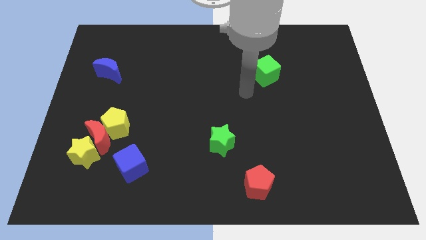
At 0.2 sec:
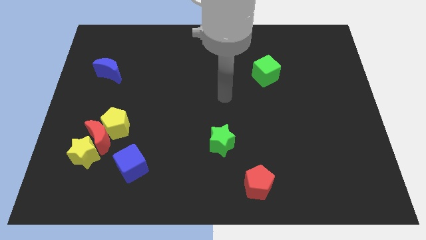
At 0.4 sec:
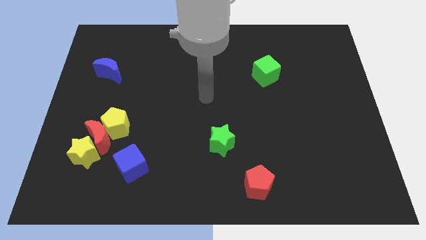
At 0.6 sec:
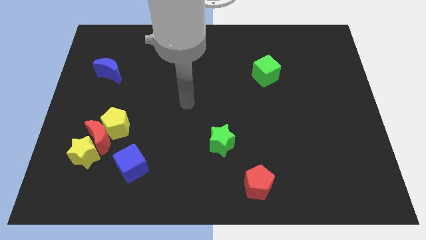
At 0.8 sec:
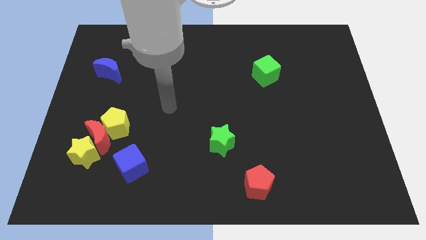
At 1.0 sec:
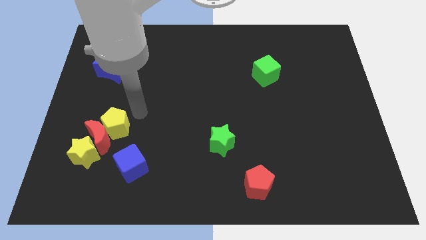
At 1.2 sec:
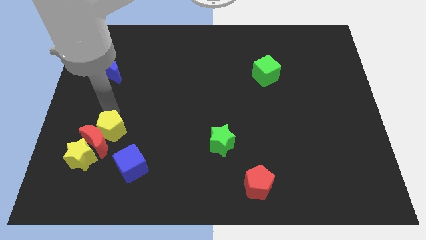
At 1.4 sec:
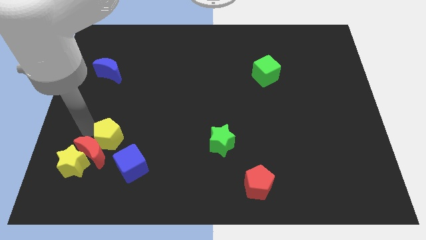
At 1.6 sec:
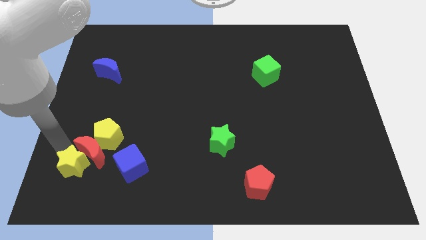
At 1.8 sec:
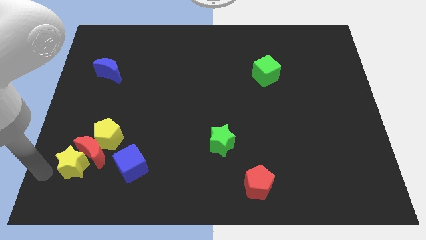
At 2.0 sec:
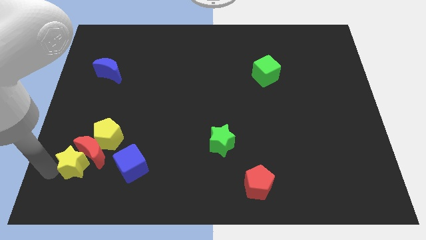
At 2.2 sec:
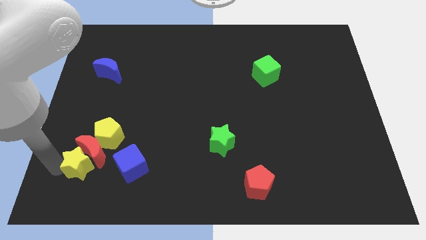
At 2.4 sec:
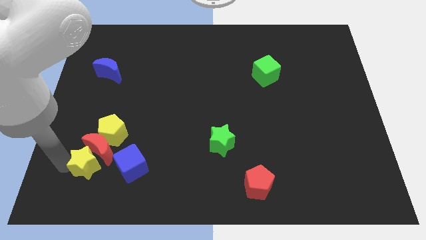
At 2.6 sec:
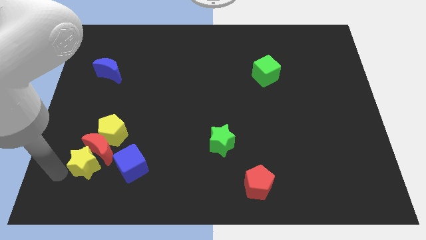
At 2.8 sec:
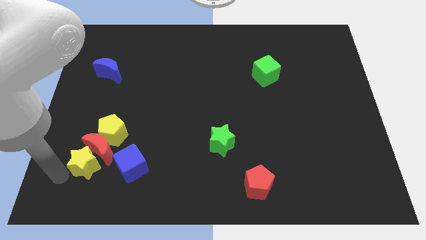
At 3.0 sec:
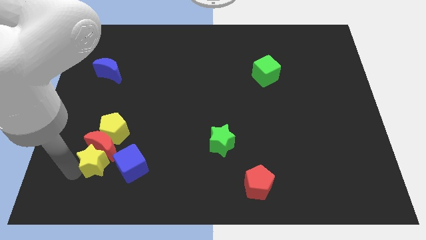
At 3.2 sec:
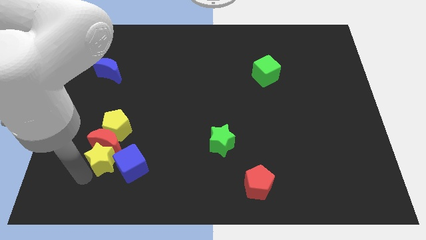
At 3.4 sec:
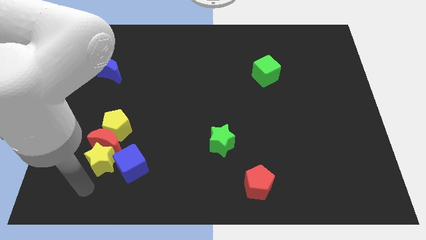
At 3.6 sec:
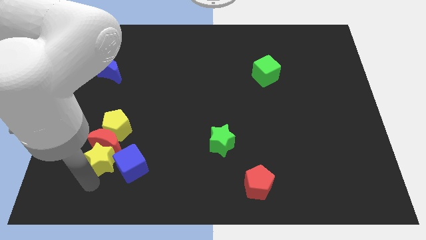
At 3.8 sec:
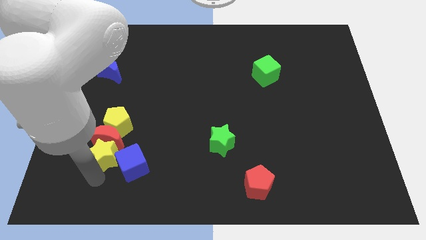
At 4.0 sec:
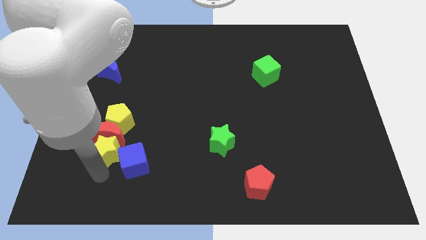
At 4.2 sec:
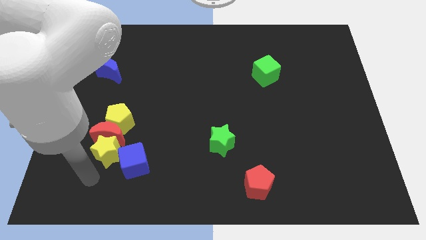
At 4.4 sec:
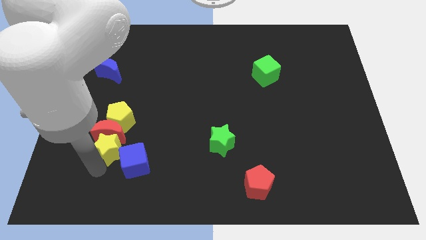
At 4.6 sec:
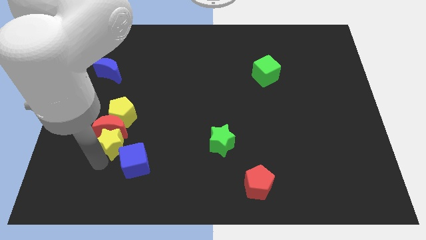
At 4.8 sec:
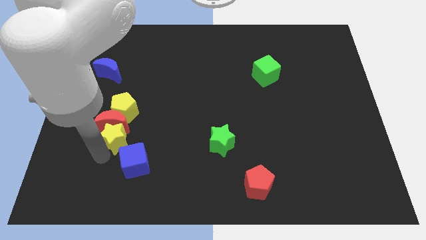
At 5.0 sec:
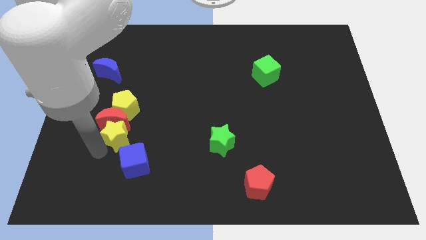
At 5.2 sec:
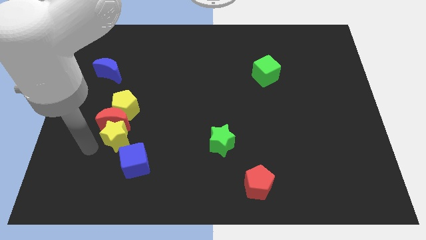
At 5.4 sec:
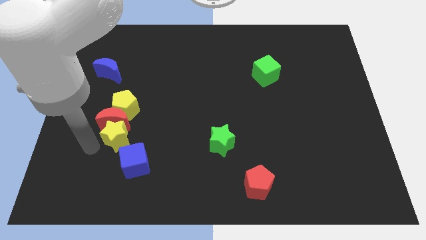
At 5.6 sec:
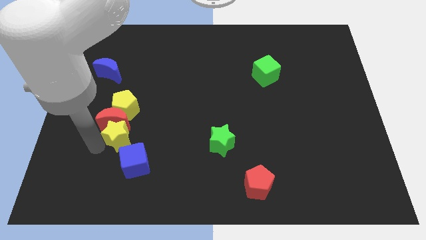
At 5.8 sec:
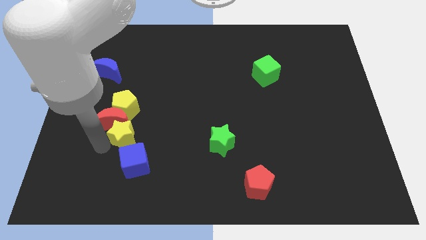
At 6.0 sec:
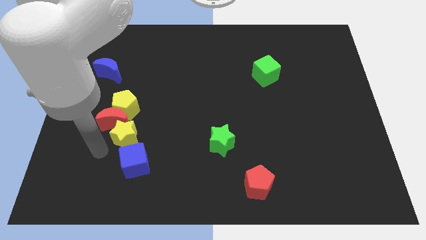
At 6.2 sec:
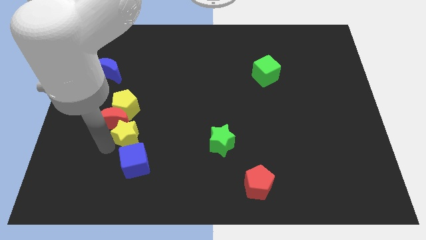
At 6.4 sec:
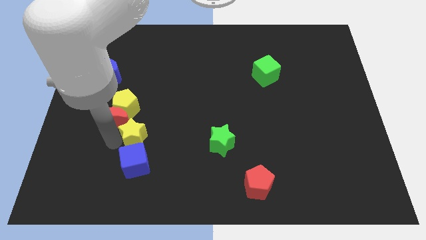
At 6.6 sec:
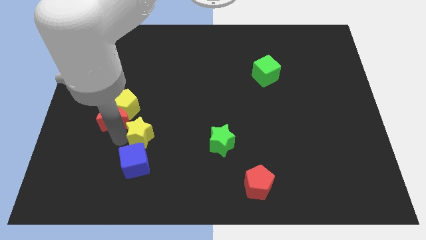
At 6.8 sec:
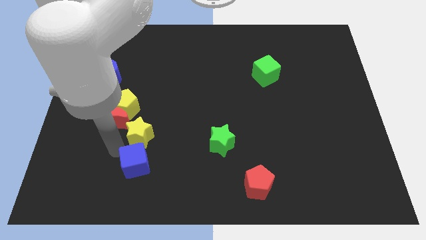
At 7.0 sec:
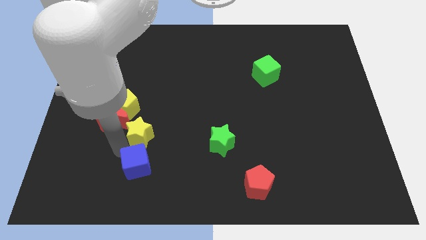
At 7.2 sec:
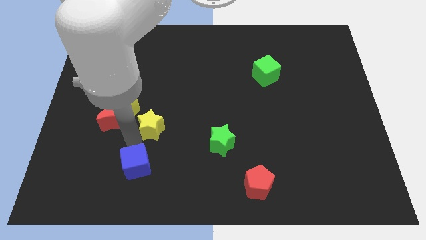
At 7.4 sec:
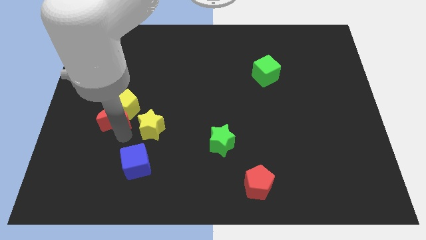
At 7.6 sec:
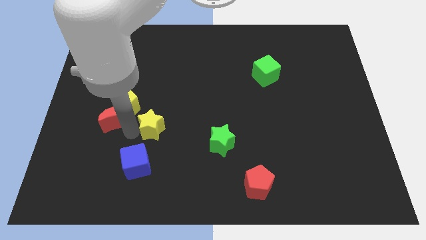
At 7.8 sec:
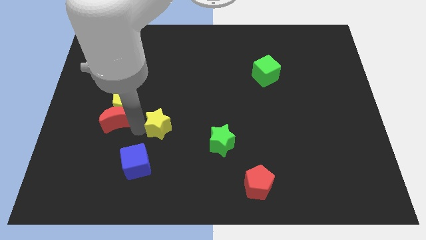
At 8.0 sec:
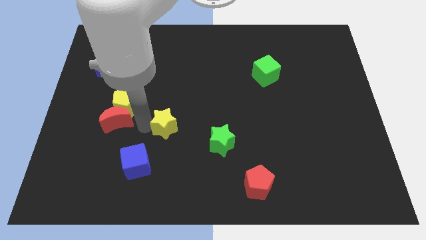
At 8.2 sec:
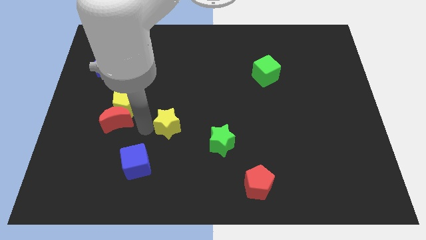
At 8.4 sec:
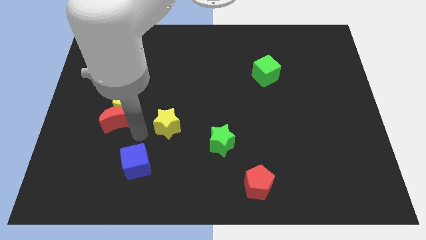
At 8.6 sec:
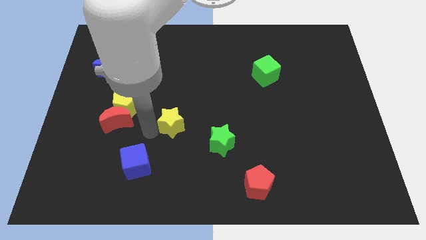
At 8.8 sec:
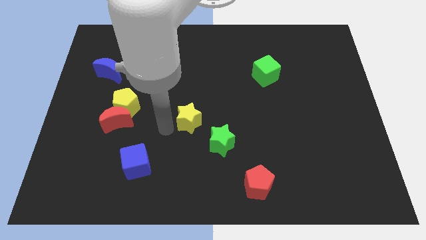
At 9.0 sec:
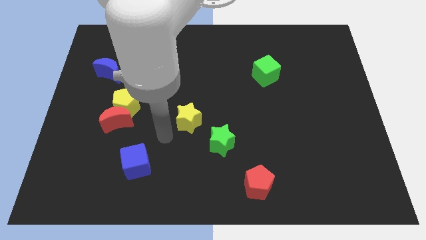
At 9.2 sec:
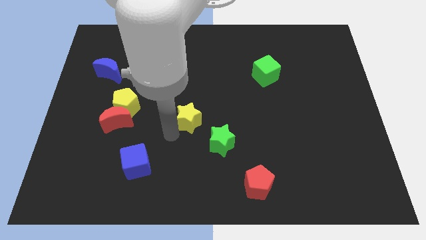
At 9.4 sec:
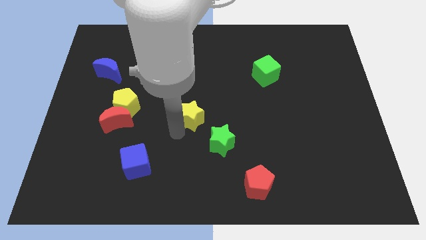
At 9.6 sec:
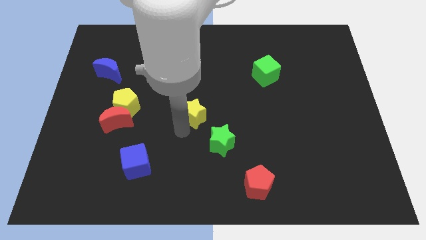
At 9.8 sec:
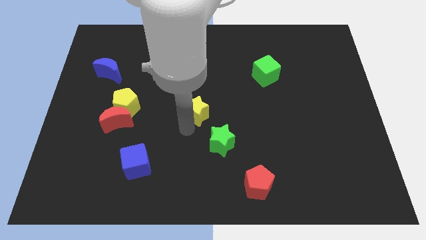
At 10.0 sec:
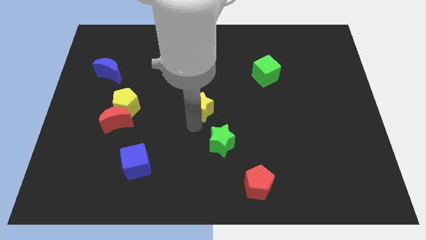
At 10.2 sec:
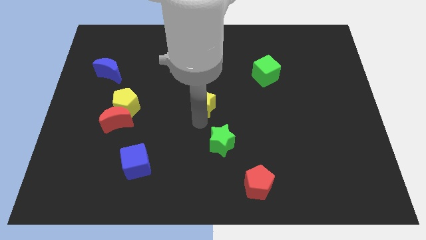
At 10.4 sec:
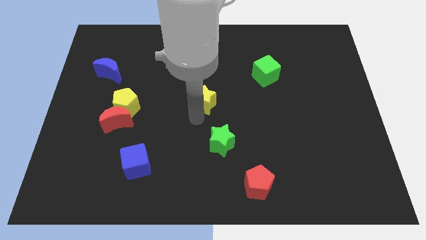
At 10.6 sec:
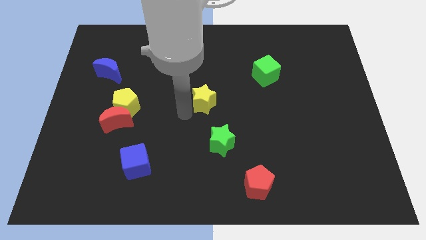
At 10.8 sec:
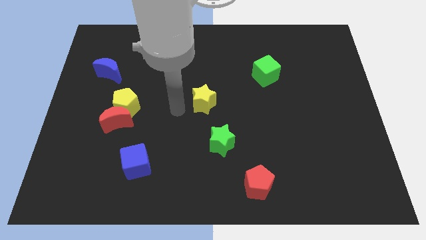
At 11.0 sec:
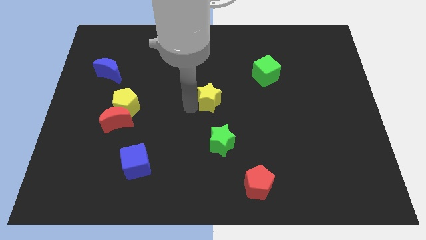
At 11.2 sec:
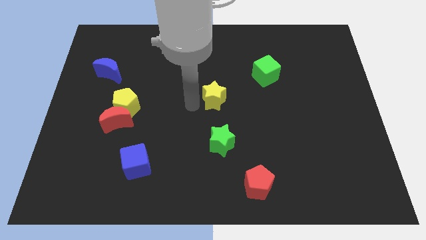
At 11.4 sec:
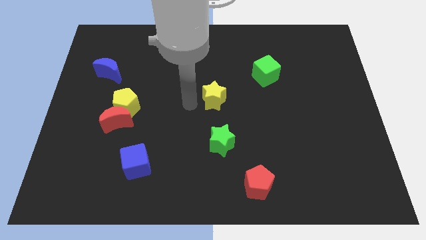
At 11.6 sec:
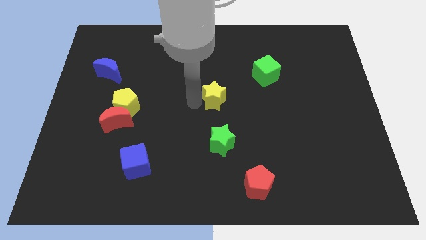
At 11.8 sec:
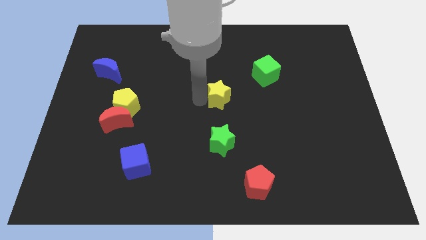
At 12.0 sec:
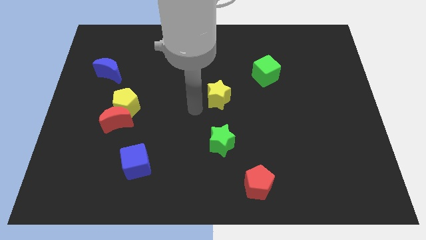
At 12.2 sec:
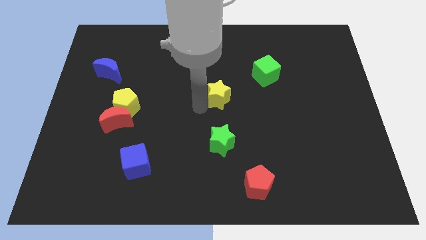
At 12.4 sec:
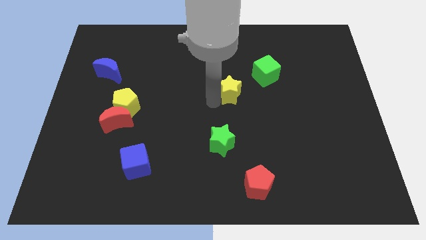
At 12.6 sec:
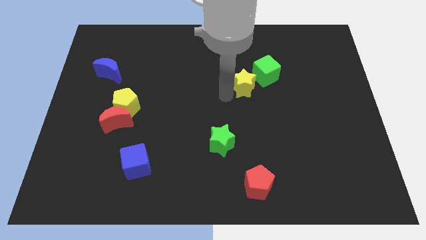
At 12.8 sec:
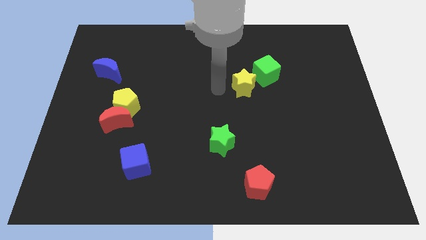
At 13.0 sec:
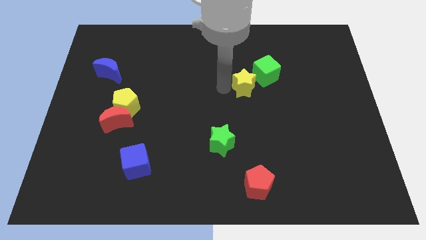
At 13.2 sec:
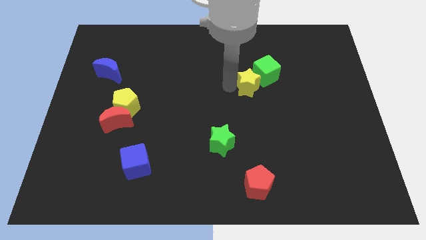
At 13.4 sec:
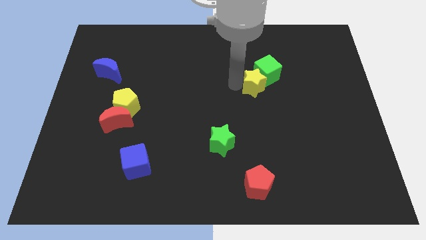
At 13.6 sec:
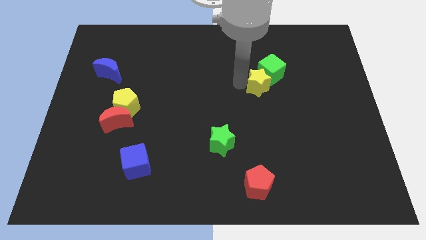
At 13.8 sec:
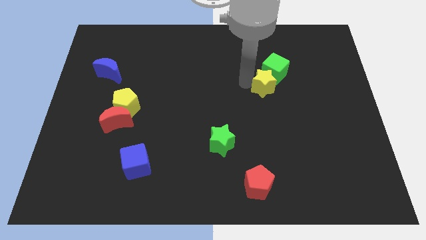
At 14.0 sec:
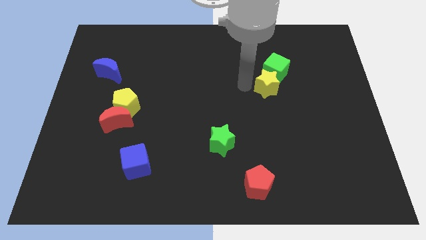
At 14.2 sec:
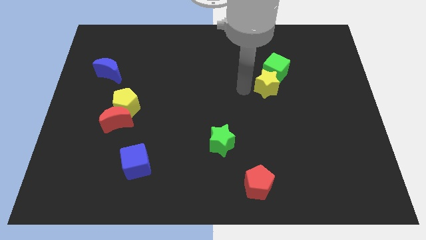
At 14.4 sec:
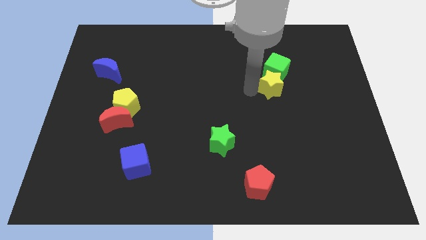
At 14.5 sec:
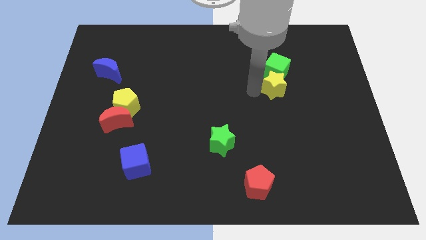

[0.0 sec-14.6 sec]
move the yellow star diagonally down and to the right of the green cube

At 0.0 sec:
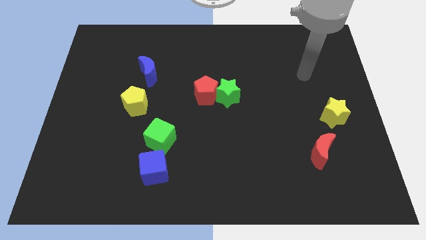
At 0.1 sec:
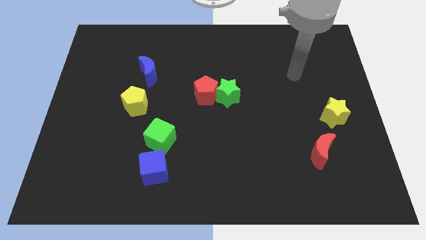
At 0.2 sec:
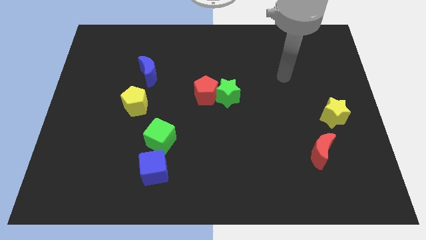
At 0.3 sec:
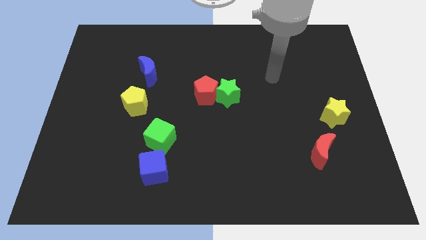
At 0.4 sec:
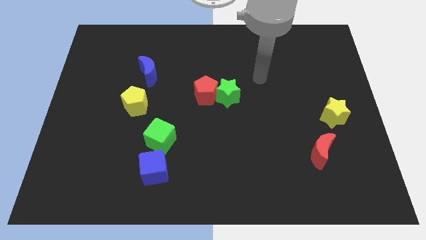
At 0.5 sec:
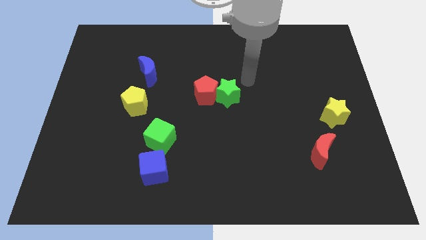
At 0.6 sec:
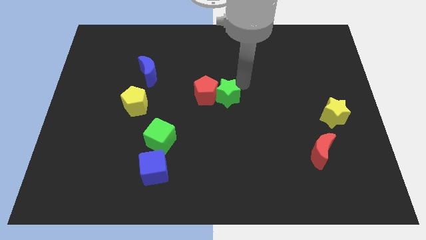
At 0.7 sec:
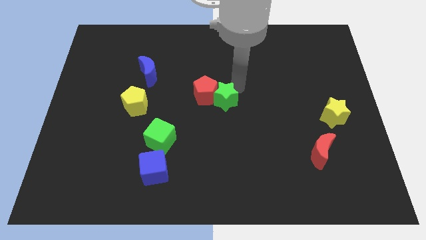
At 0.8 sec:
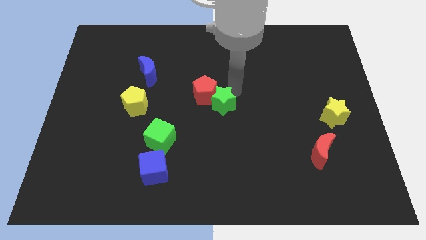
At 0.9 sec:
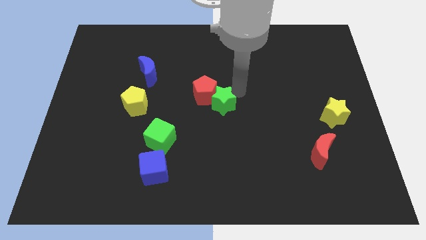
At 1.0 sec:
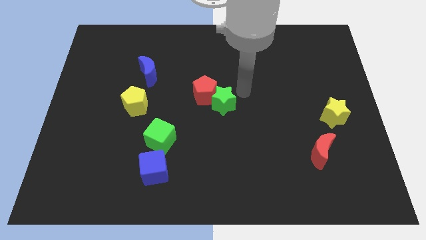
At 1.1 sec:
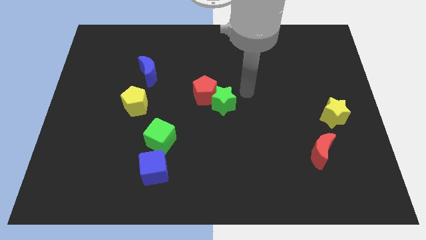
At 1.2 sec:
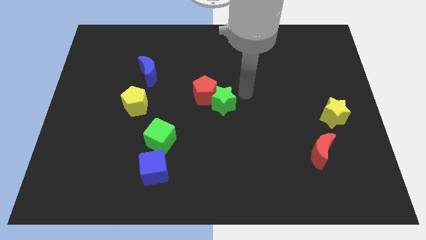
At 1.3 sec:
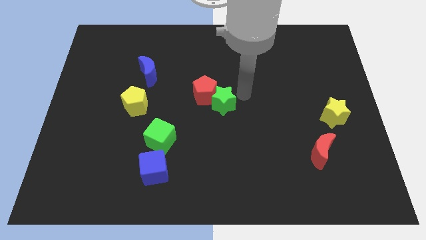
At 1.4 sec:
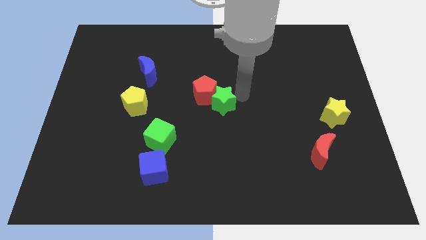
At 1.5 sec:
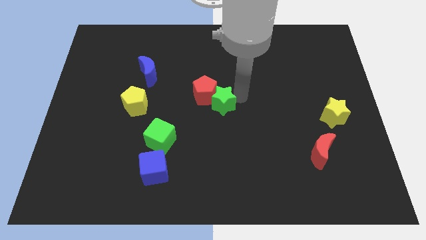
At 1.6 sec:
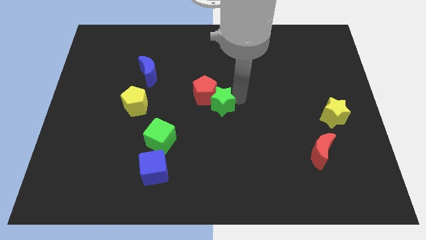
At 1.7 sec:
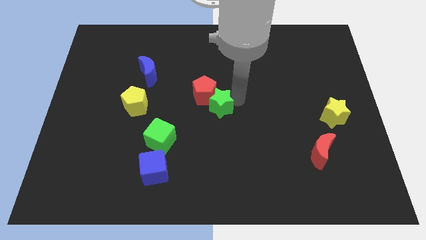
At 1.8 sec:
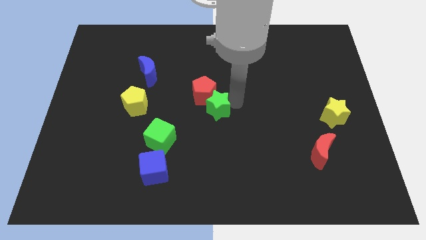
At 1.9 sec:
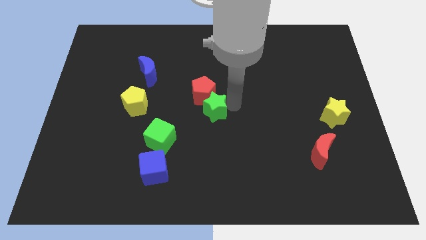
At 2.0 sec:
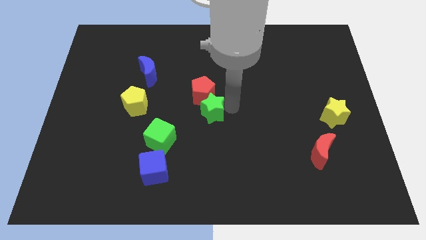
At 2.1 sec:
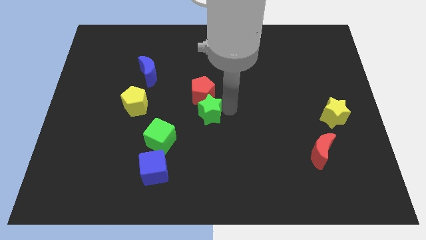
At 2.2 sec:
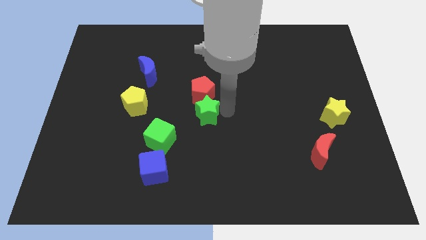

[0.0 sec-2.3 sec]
put the green star to the top right side of the green cube
